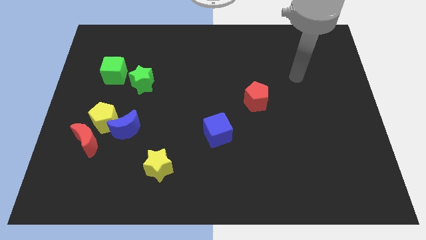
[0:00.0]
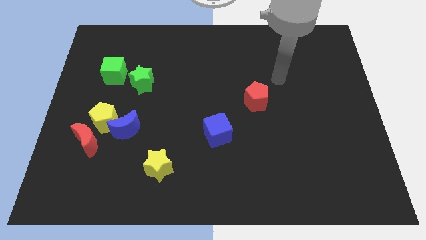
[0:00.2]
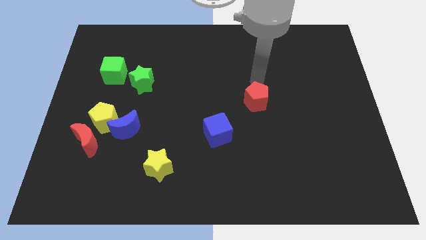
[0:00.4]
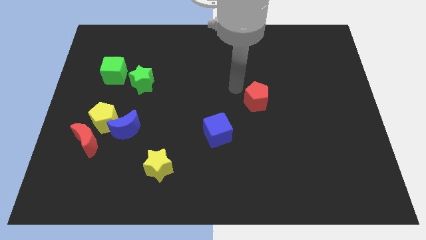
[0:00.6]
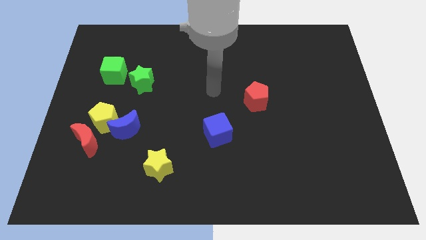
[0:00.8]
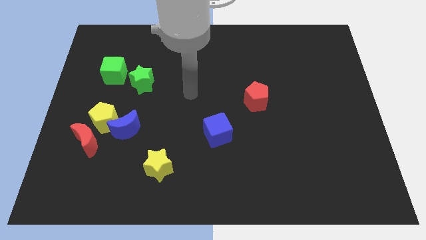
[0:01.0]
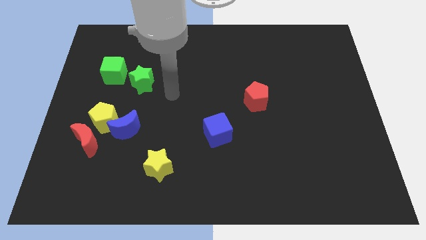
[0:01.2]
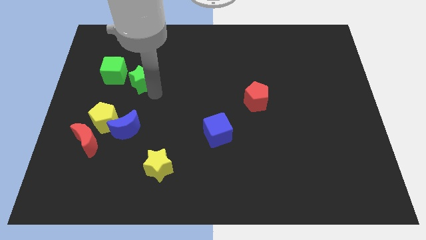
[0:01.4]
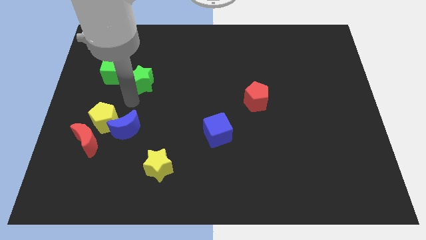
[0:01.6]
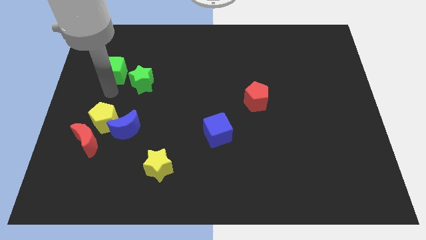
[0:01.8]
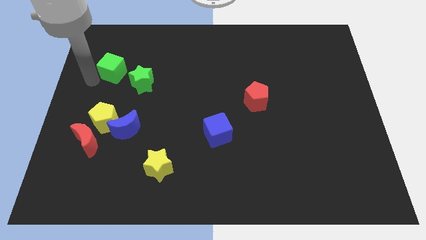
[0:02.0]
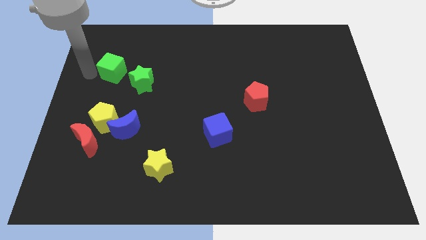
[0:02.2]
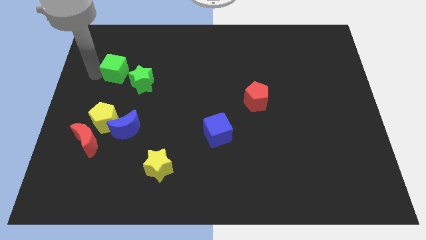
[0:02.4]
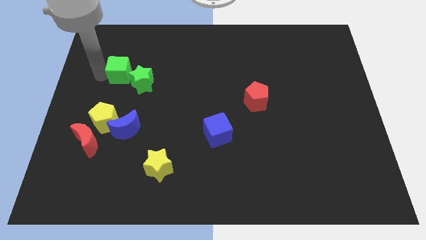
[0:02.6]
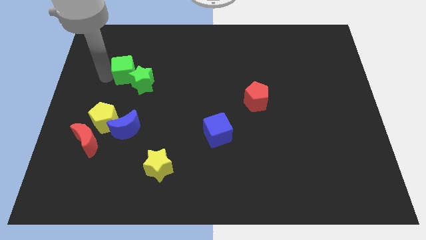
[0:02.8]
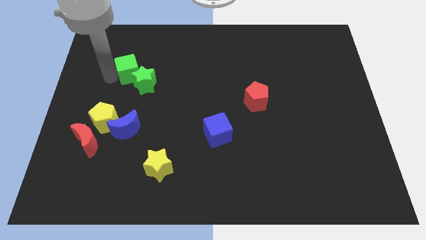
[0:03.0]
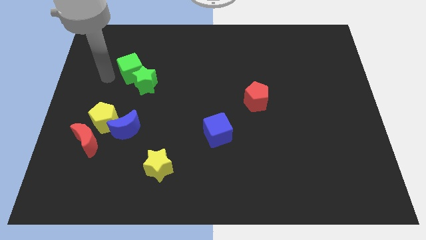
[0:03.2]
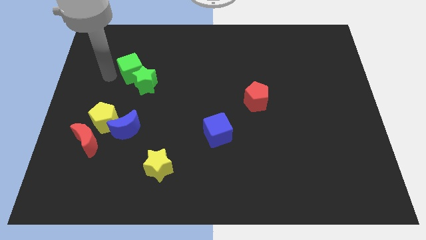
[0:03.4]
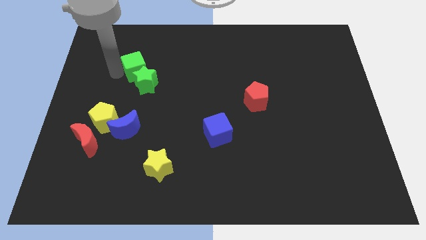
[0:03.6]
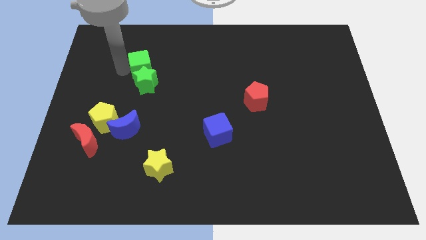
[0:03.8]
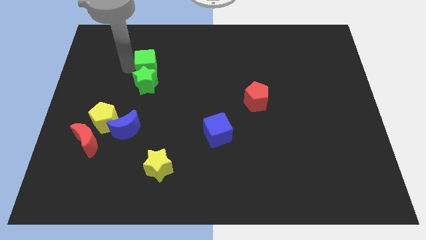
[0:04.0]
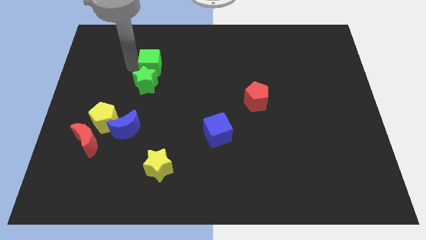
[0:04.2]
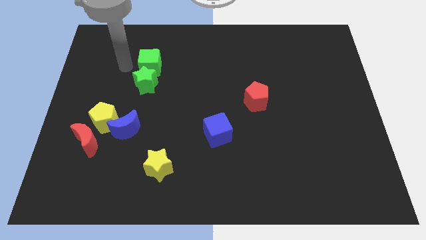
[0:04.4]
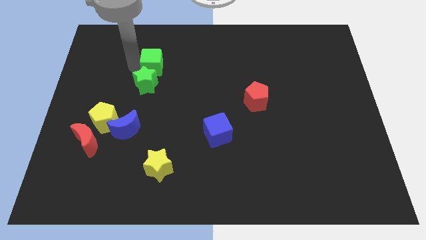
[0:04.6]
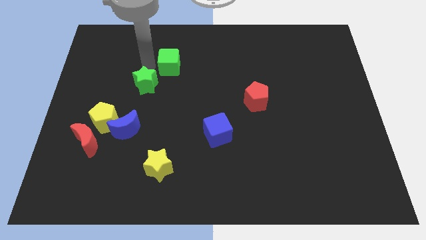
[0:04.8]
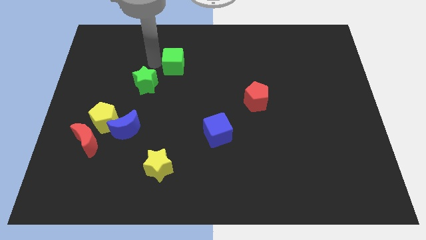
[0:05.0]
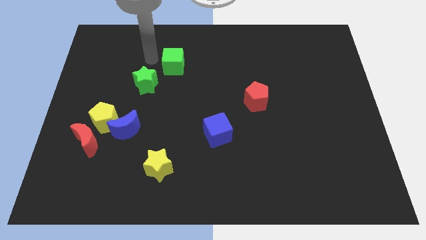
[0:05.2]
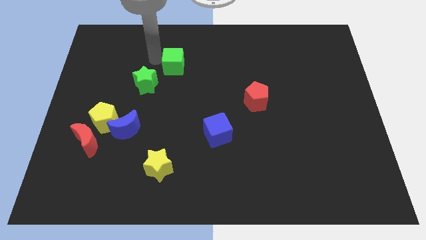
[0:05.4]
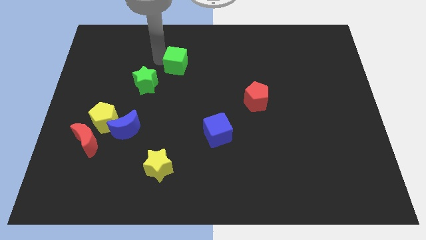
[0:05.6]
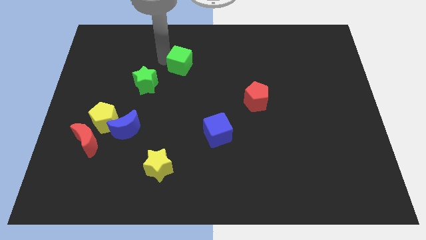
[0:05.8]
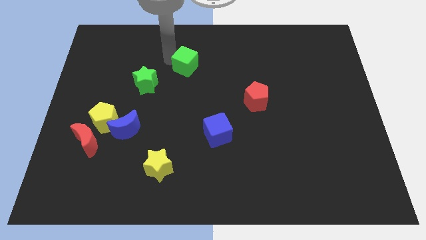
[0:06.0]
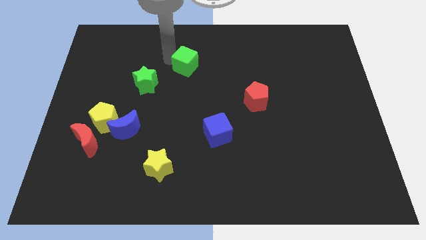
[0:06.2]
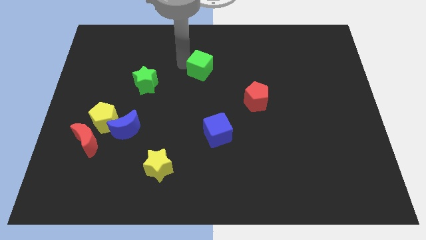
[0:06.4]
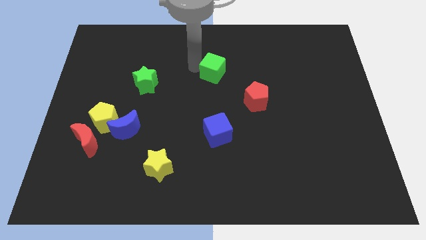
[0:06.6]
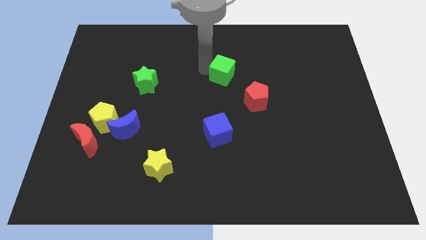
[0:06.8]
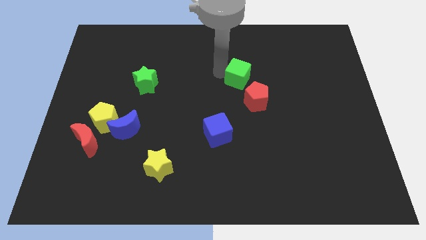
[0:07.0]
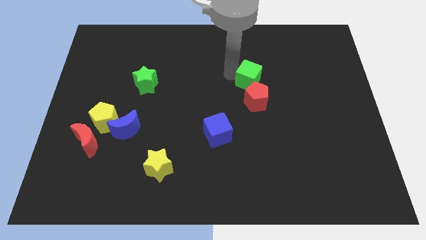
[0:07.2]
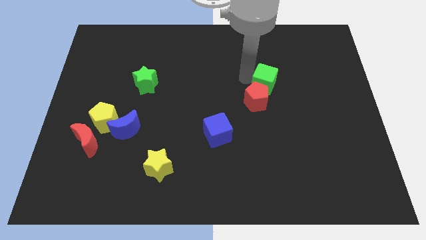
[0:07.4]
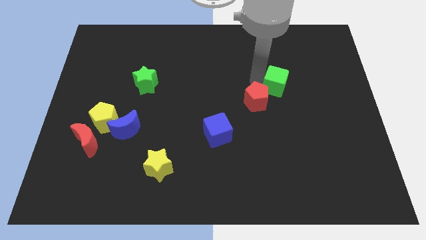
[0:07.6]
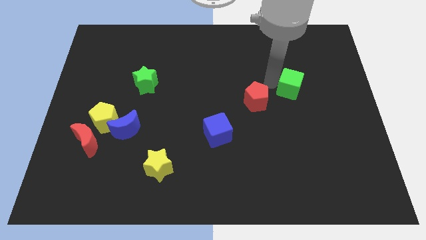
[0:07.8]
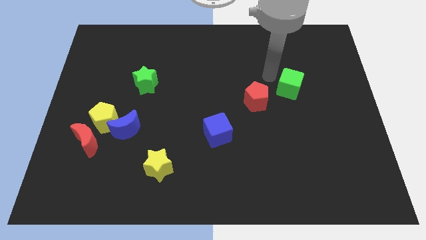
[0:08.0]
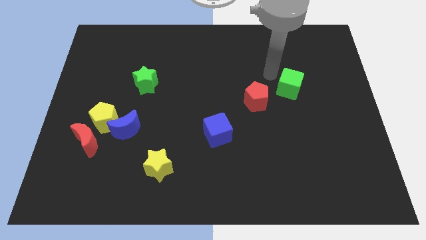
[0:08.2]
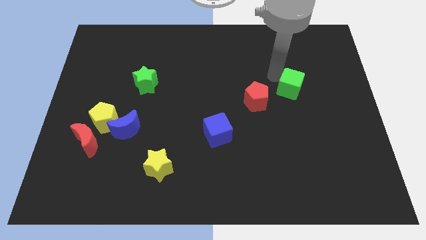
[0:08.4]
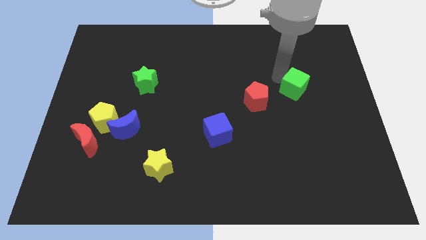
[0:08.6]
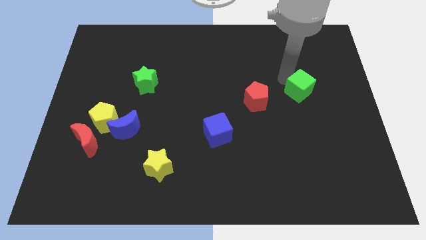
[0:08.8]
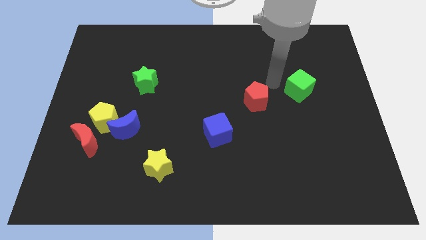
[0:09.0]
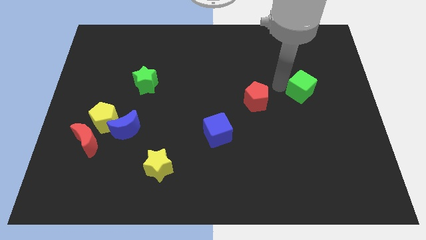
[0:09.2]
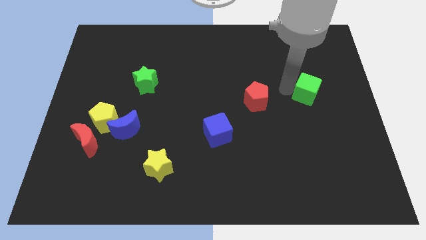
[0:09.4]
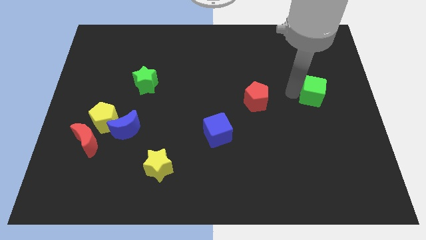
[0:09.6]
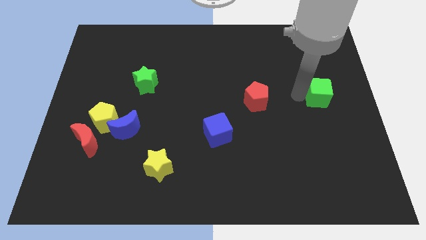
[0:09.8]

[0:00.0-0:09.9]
move the green cube to the right side of the board

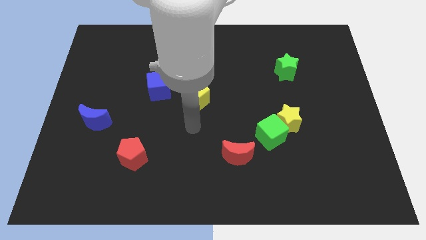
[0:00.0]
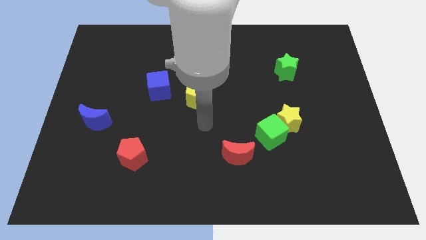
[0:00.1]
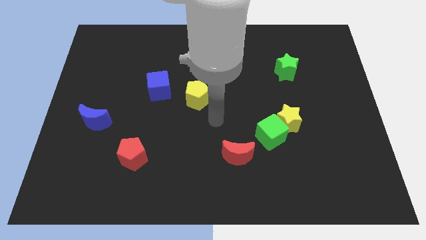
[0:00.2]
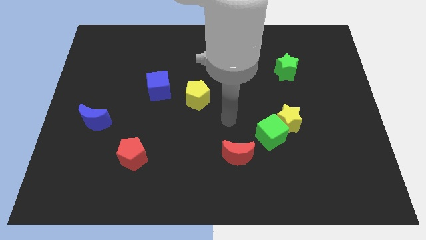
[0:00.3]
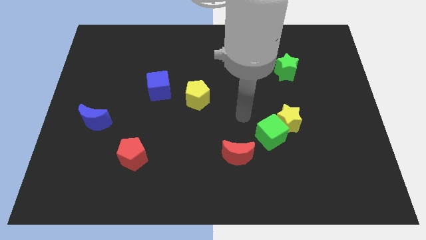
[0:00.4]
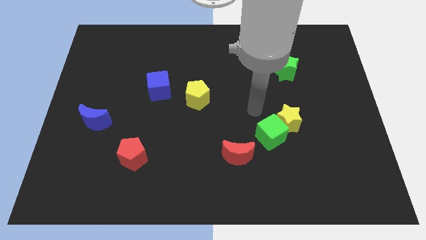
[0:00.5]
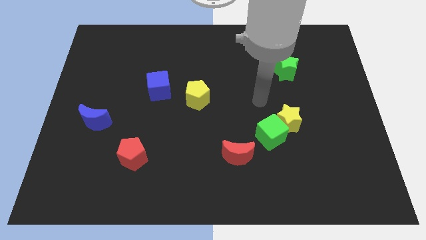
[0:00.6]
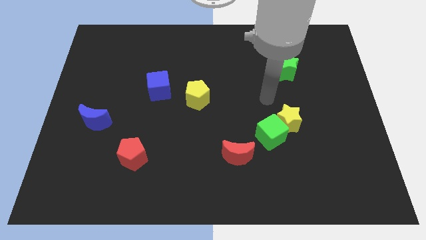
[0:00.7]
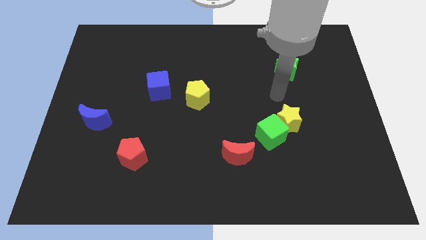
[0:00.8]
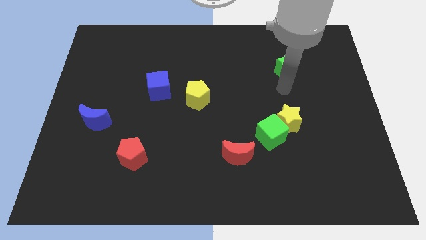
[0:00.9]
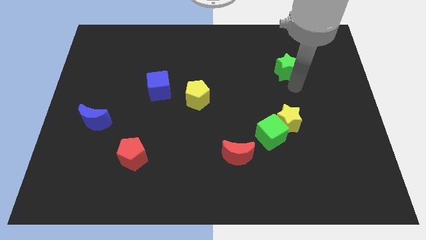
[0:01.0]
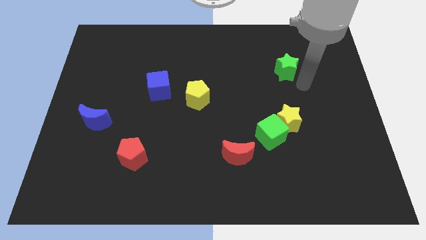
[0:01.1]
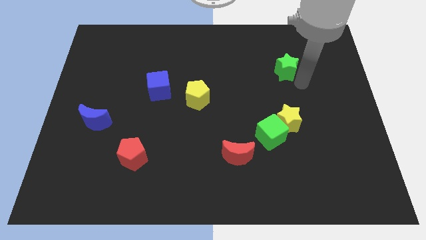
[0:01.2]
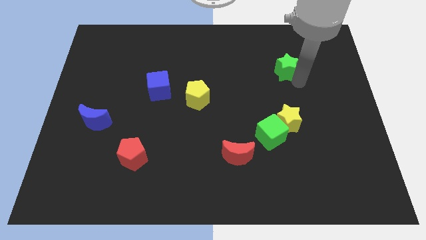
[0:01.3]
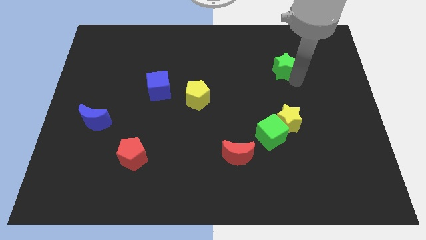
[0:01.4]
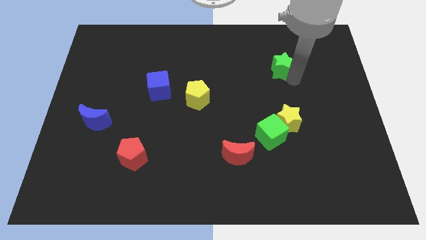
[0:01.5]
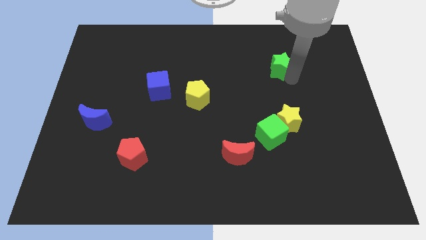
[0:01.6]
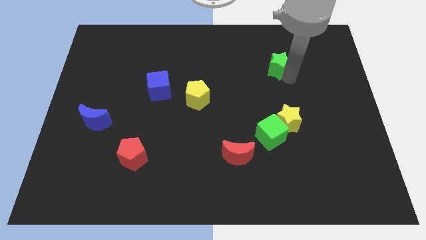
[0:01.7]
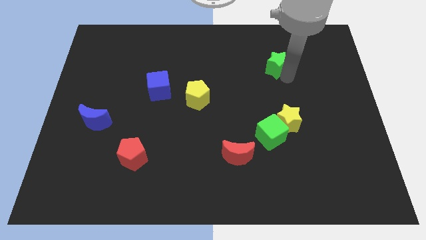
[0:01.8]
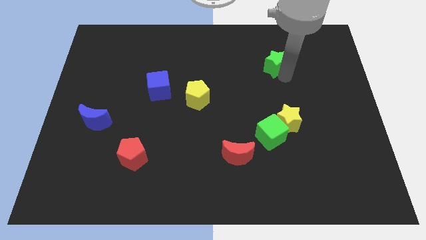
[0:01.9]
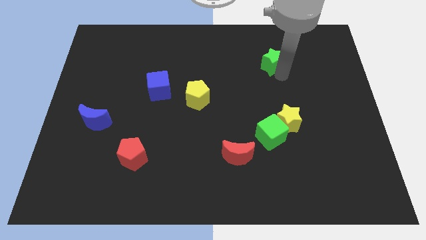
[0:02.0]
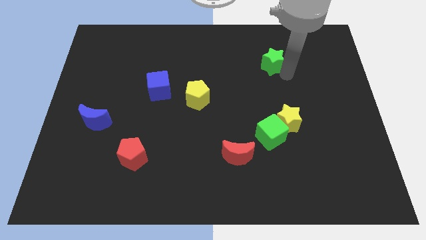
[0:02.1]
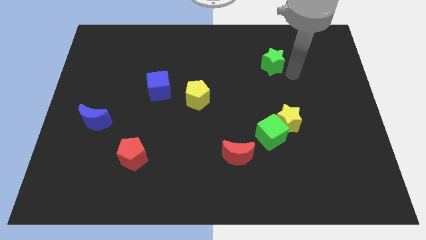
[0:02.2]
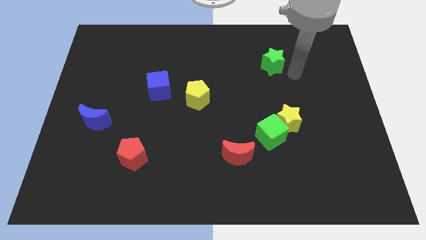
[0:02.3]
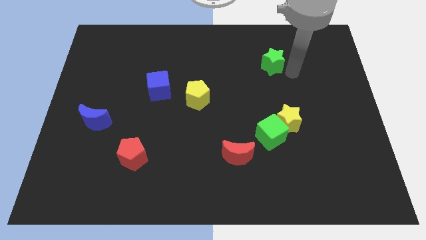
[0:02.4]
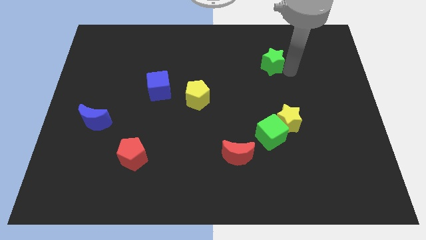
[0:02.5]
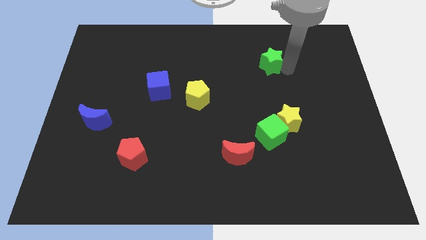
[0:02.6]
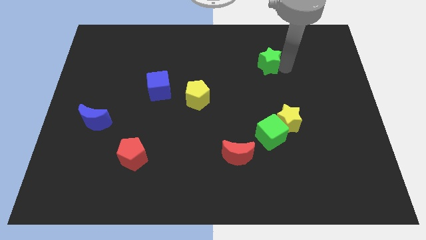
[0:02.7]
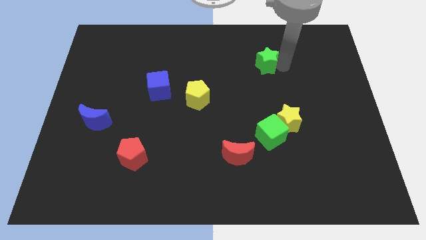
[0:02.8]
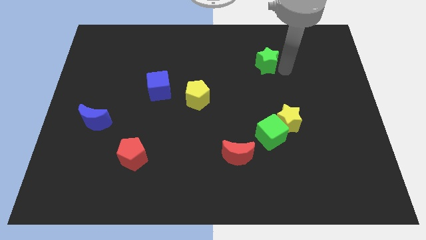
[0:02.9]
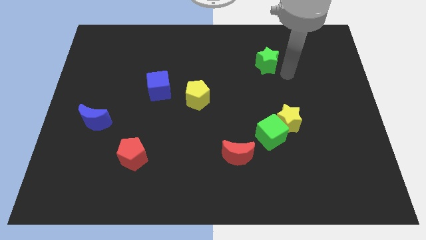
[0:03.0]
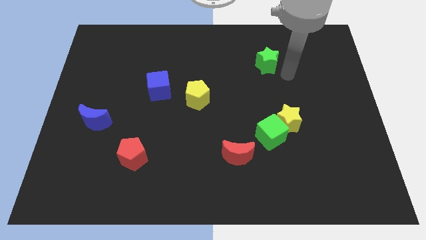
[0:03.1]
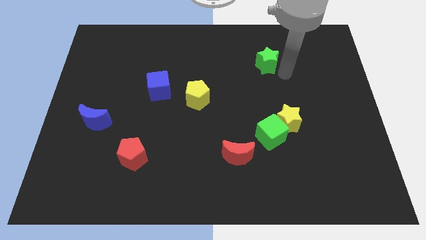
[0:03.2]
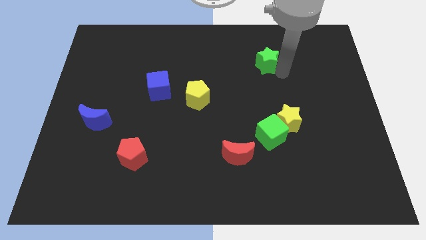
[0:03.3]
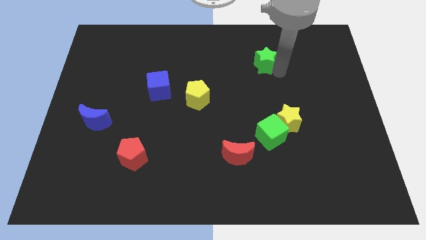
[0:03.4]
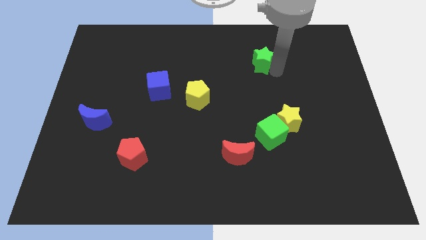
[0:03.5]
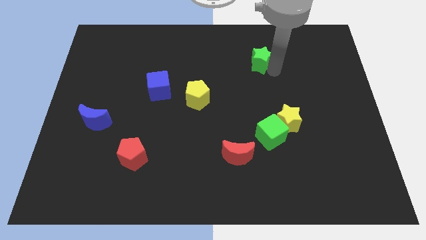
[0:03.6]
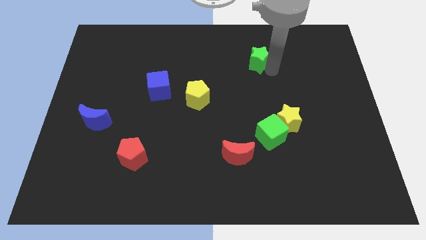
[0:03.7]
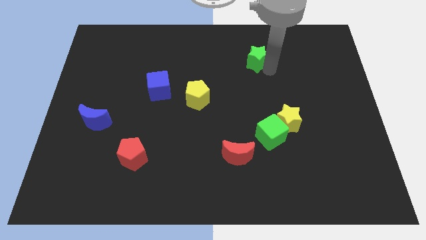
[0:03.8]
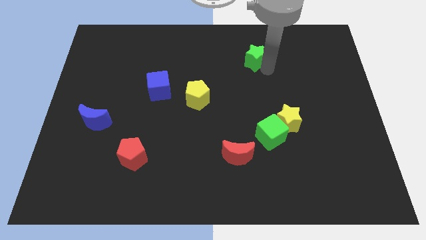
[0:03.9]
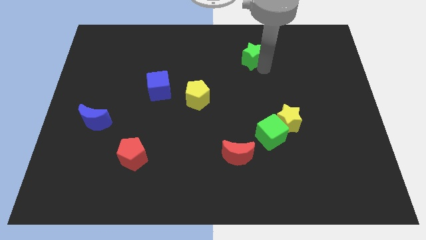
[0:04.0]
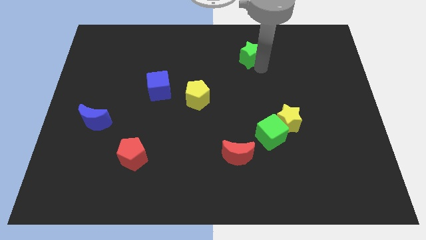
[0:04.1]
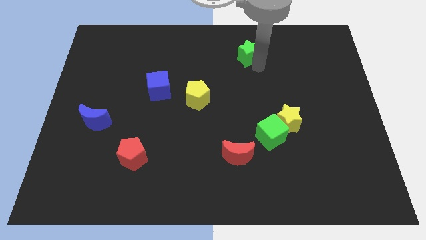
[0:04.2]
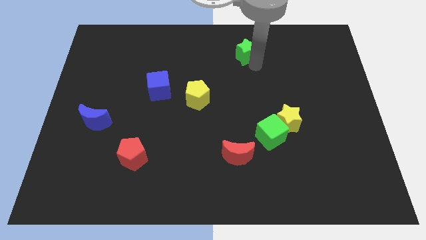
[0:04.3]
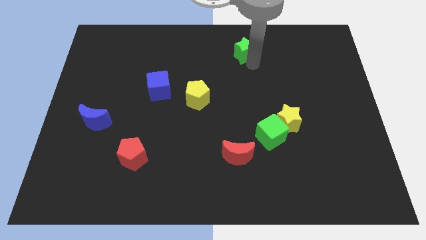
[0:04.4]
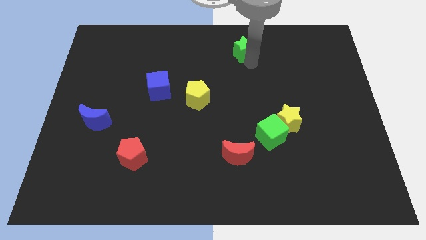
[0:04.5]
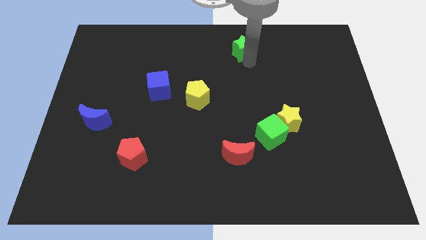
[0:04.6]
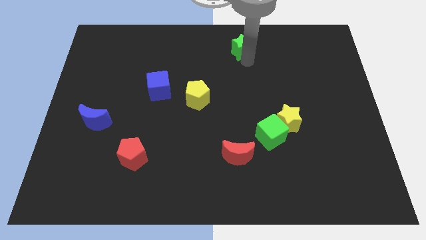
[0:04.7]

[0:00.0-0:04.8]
push the green star to the towards your base
